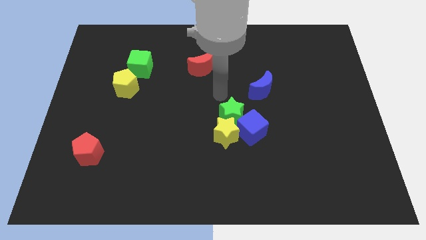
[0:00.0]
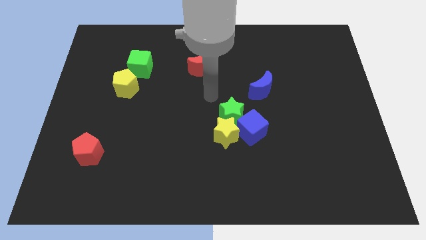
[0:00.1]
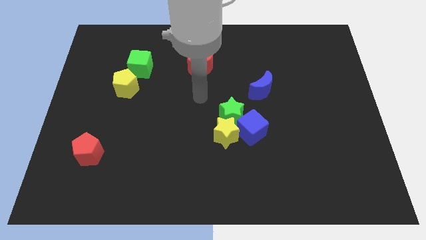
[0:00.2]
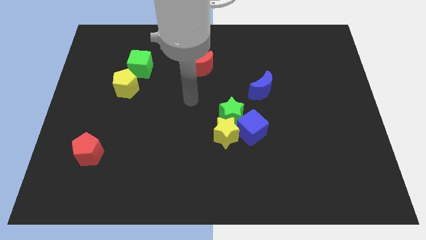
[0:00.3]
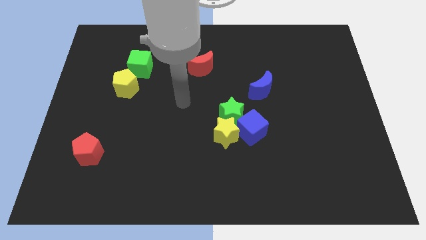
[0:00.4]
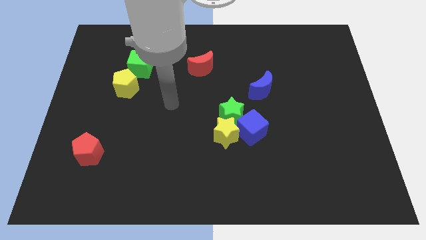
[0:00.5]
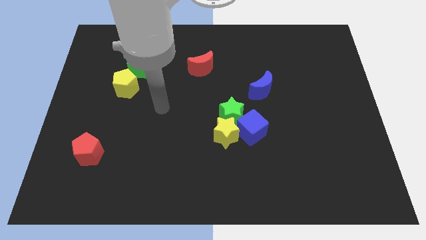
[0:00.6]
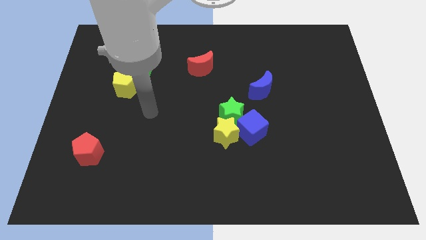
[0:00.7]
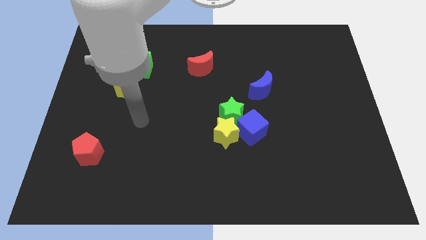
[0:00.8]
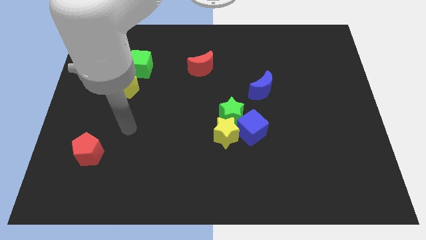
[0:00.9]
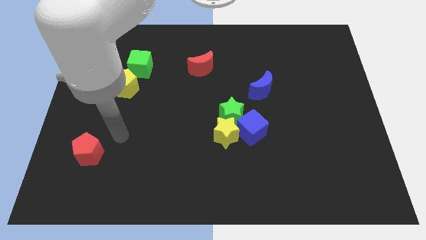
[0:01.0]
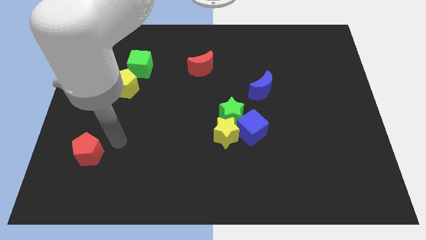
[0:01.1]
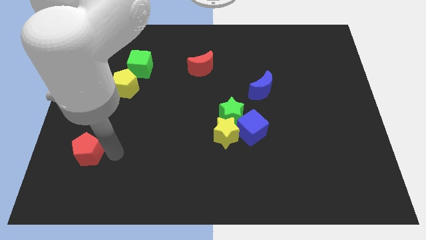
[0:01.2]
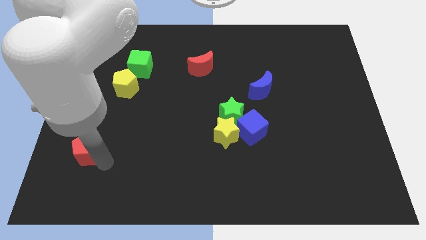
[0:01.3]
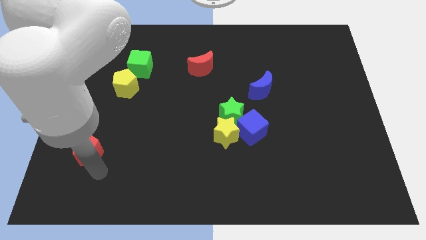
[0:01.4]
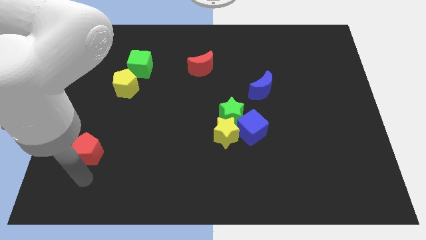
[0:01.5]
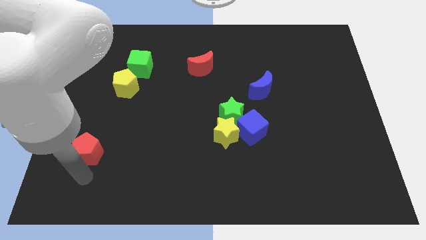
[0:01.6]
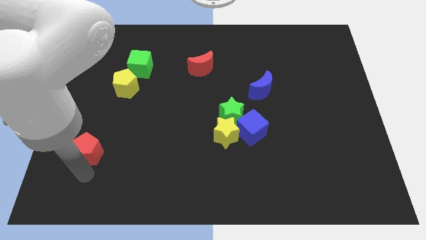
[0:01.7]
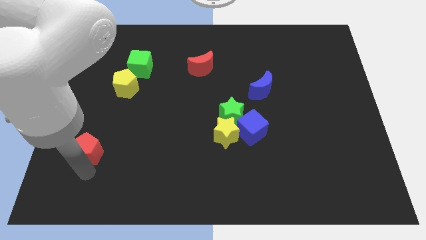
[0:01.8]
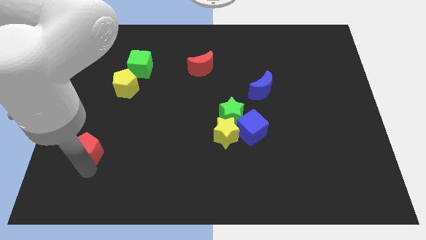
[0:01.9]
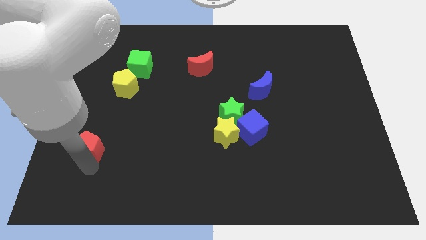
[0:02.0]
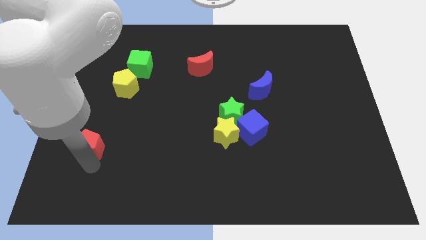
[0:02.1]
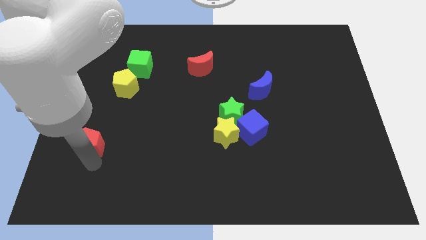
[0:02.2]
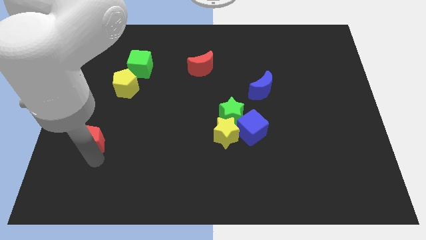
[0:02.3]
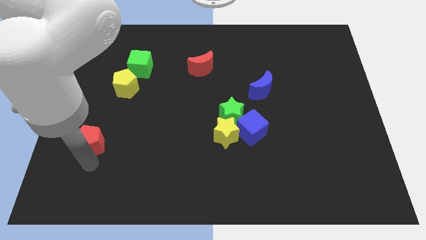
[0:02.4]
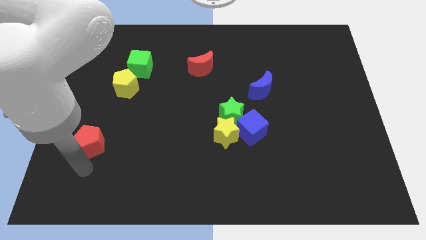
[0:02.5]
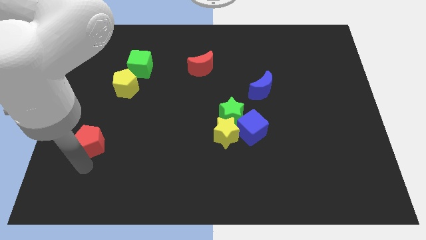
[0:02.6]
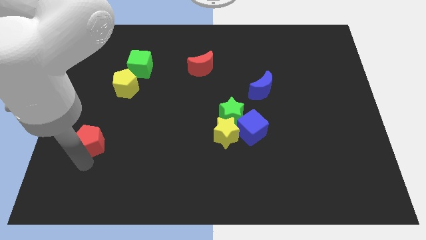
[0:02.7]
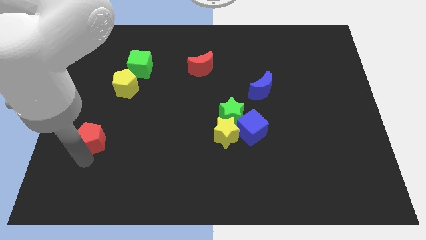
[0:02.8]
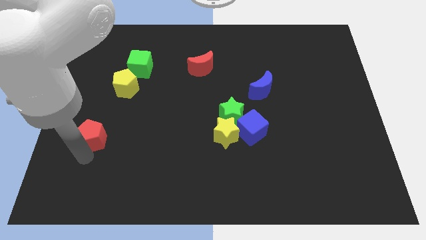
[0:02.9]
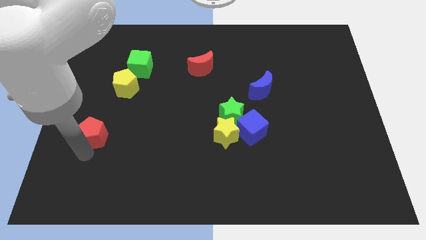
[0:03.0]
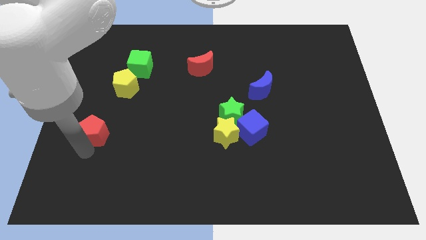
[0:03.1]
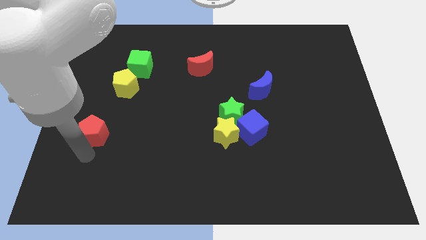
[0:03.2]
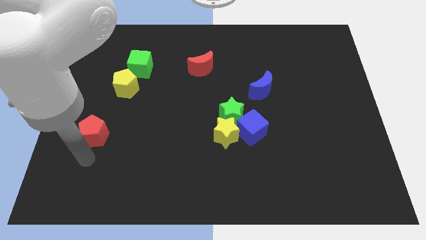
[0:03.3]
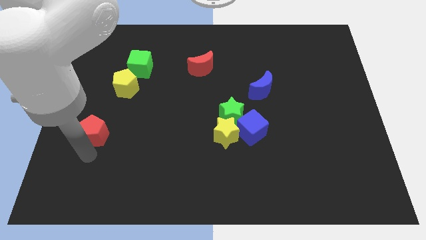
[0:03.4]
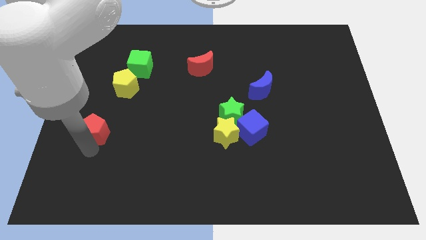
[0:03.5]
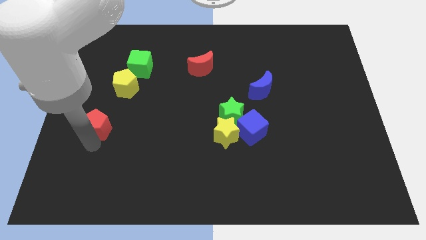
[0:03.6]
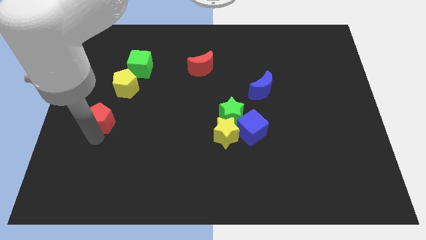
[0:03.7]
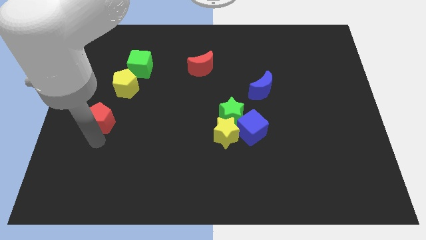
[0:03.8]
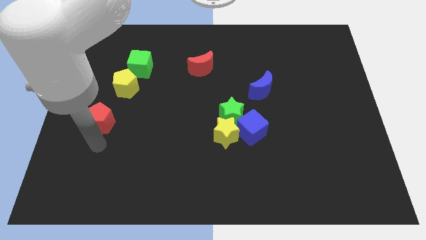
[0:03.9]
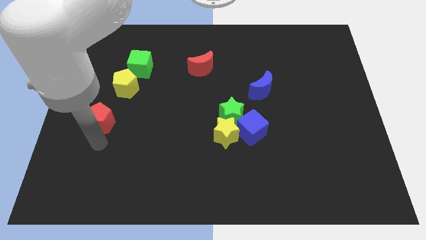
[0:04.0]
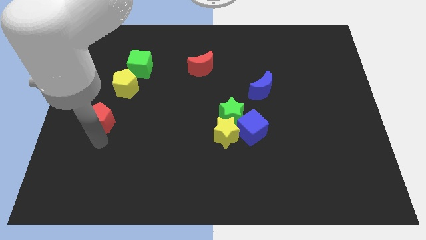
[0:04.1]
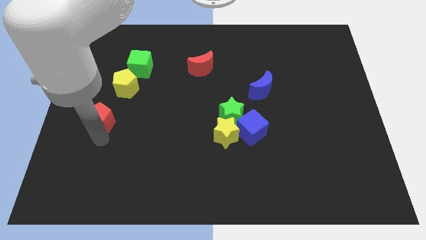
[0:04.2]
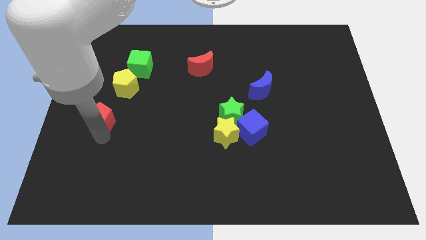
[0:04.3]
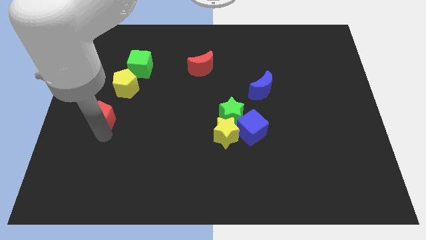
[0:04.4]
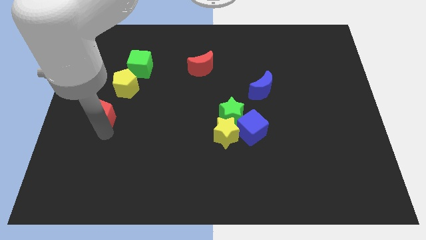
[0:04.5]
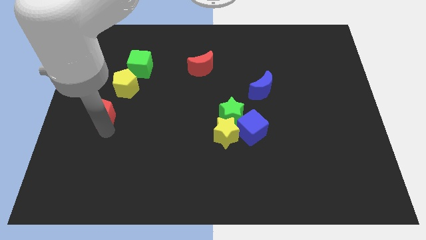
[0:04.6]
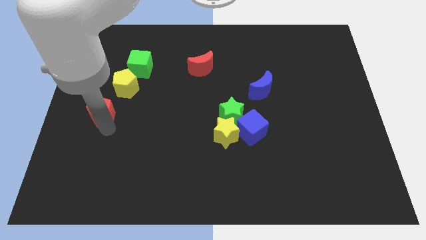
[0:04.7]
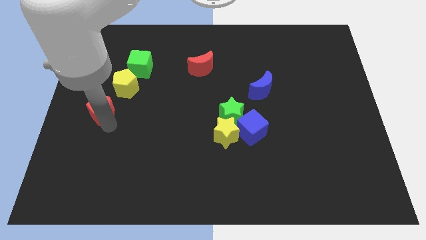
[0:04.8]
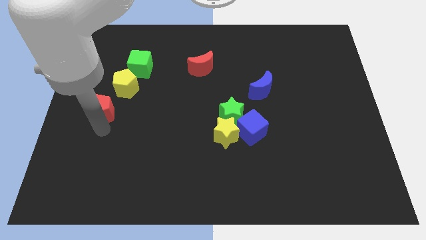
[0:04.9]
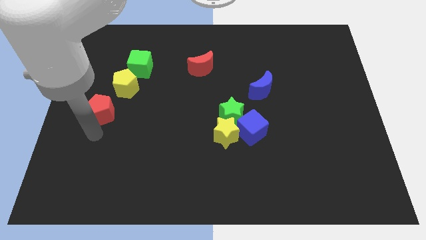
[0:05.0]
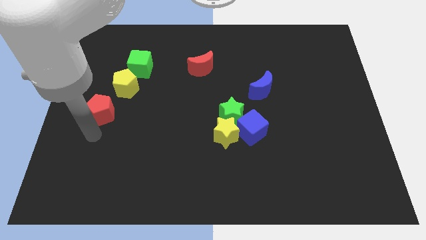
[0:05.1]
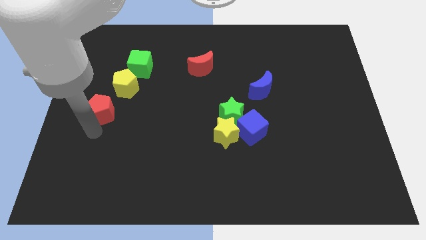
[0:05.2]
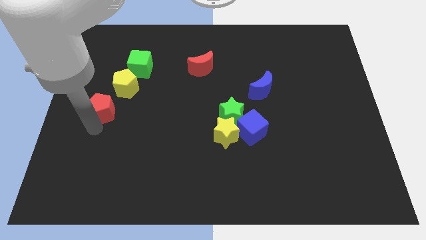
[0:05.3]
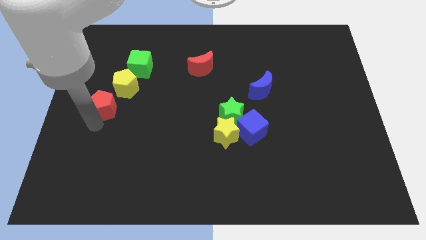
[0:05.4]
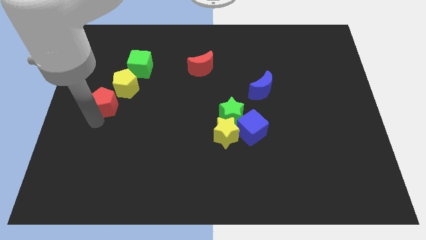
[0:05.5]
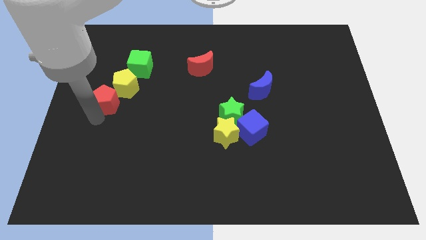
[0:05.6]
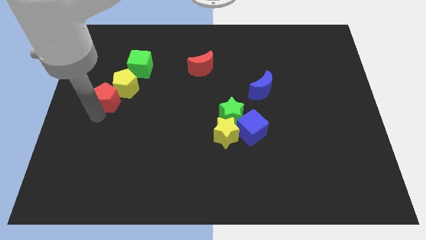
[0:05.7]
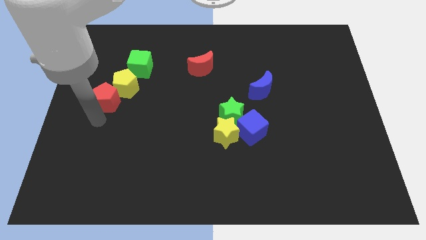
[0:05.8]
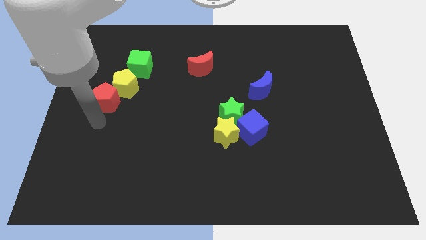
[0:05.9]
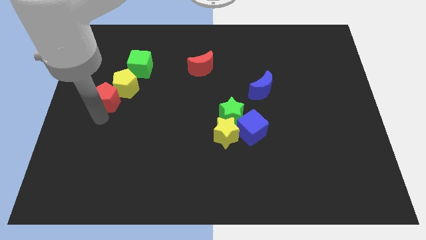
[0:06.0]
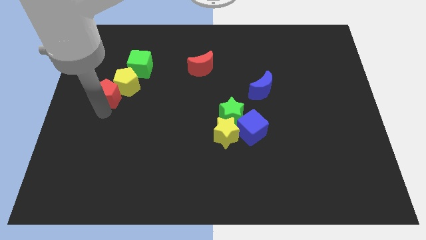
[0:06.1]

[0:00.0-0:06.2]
push the red pentagon diagonally down and to the left of the green cube

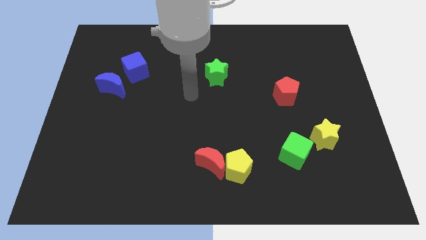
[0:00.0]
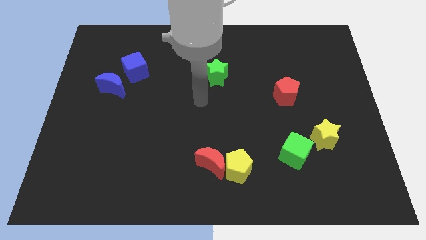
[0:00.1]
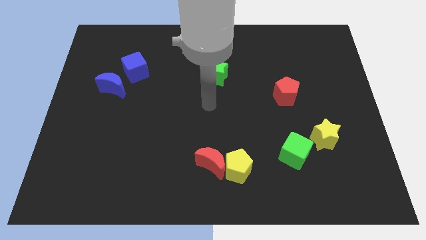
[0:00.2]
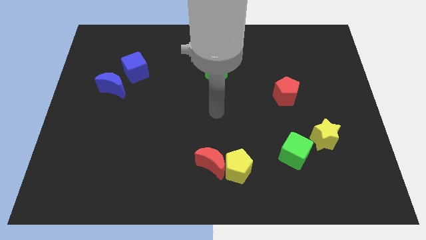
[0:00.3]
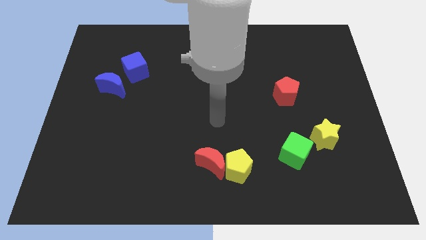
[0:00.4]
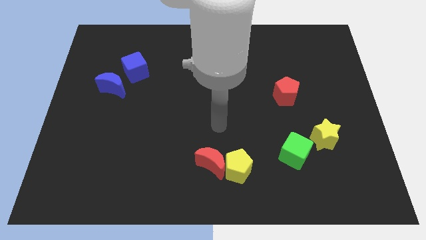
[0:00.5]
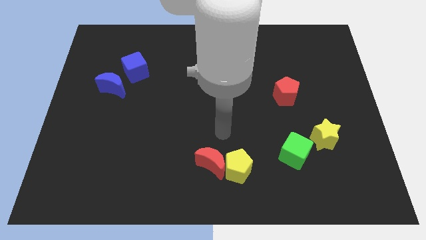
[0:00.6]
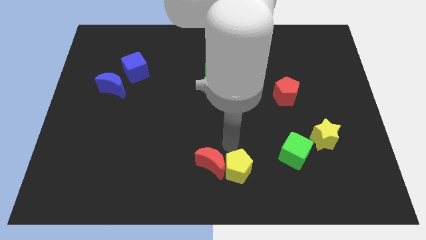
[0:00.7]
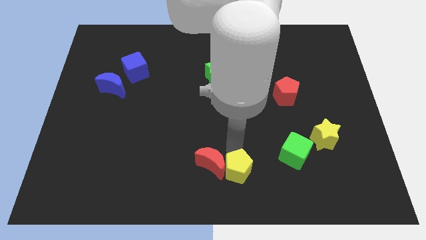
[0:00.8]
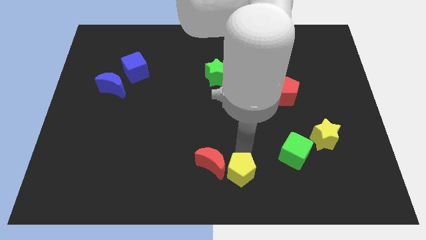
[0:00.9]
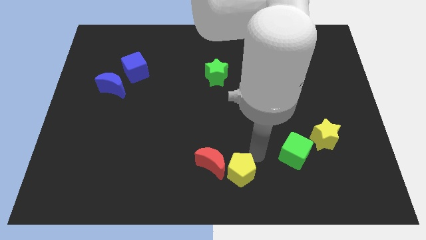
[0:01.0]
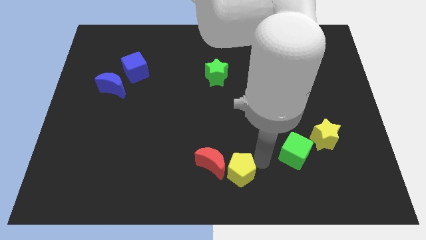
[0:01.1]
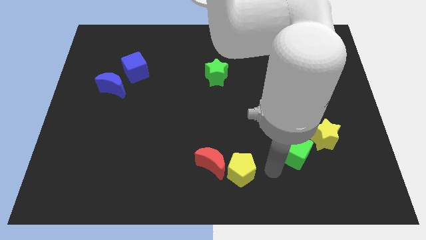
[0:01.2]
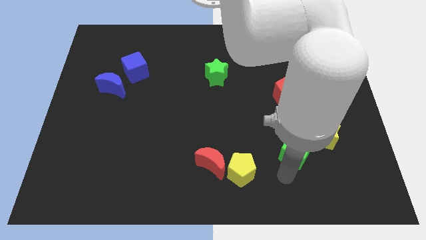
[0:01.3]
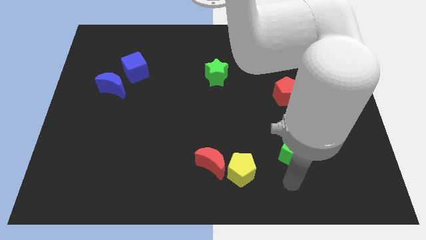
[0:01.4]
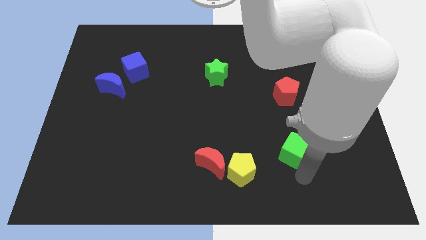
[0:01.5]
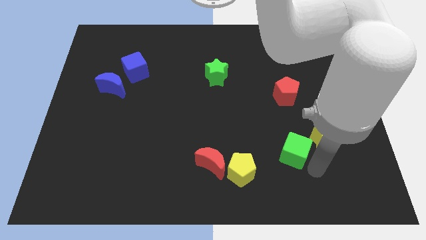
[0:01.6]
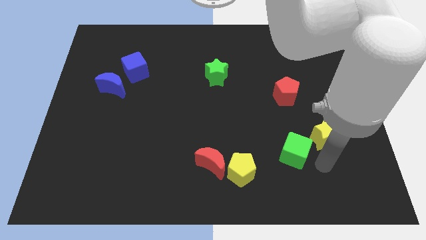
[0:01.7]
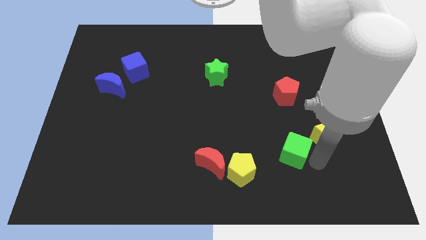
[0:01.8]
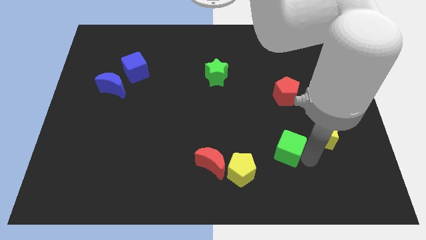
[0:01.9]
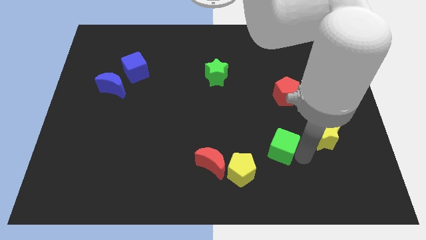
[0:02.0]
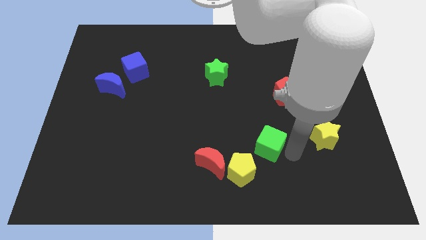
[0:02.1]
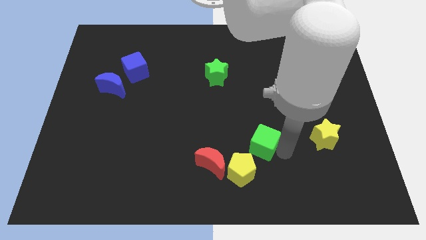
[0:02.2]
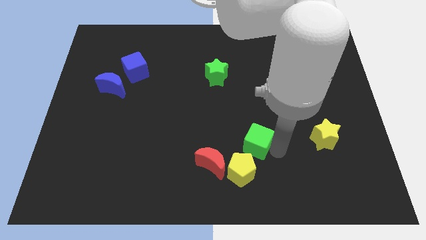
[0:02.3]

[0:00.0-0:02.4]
move the green cube to the top side of the yellow pentagon
